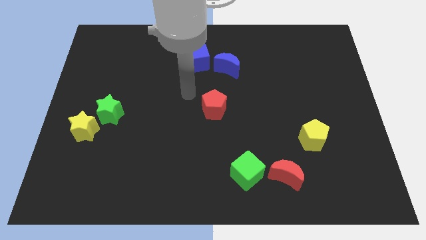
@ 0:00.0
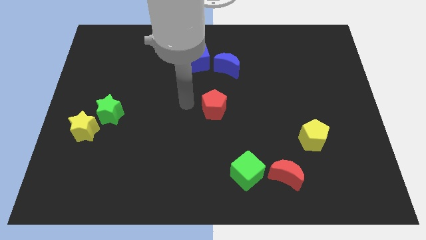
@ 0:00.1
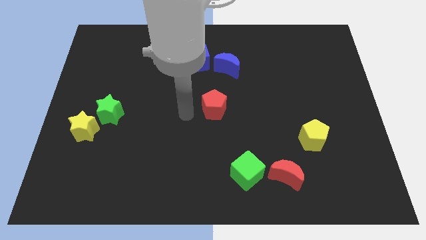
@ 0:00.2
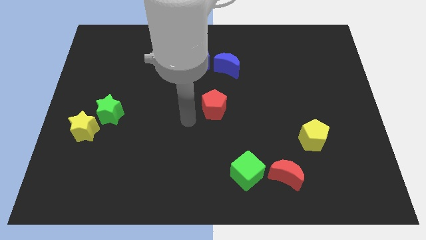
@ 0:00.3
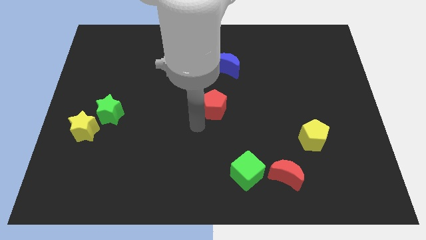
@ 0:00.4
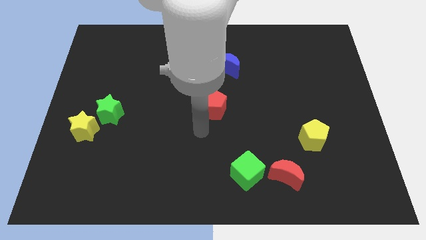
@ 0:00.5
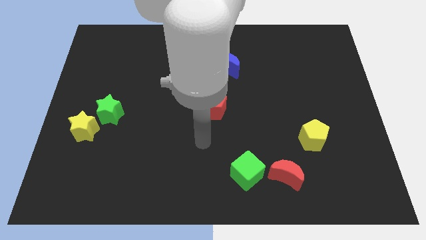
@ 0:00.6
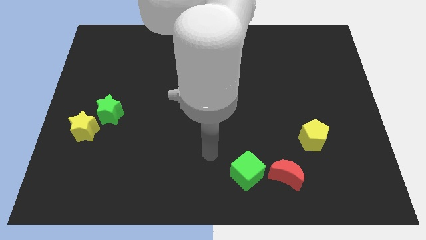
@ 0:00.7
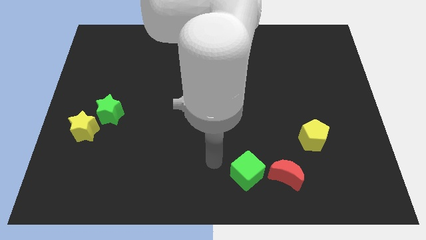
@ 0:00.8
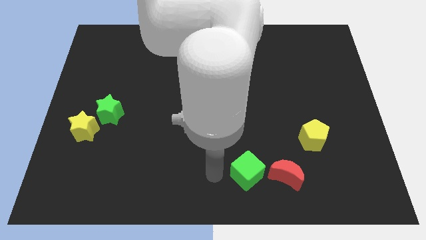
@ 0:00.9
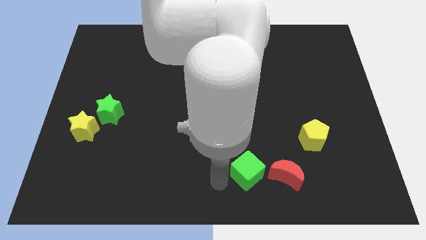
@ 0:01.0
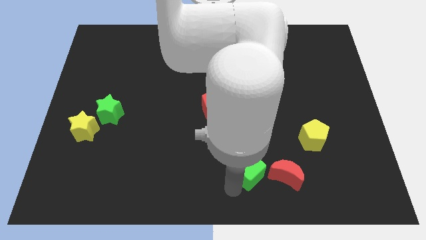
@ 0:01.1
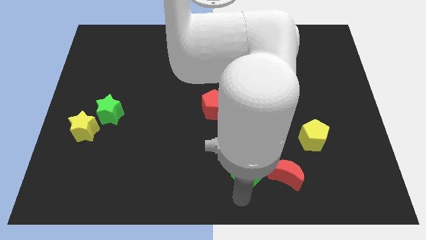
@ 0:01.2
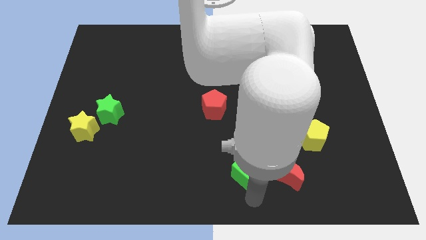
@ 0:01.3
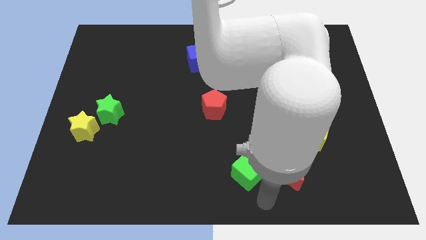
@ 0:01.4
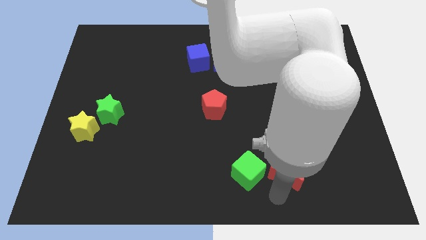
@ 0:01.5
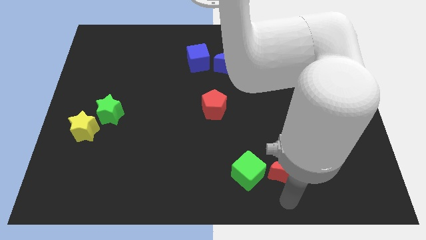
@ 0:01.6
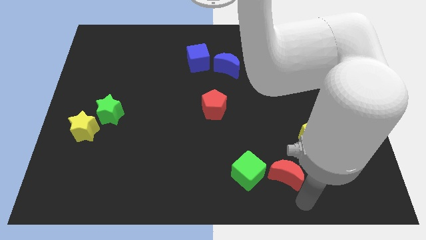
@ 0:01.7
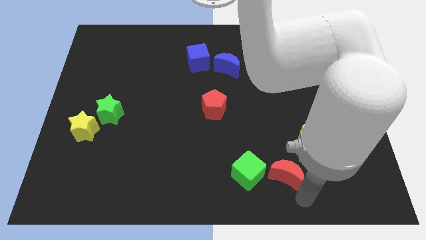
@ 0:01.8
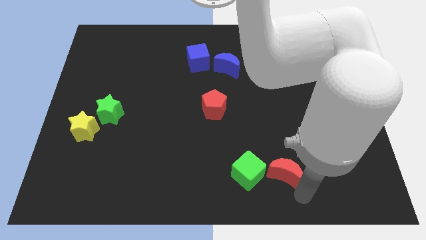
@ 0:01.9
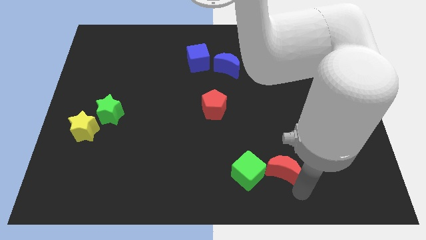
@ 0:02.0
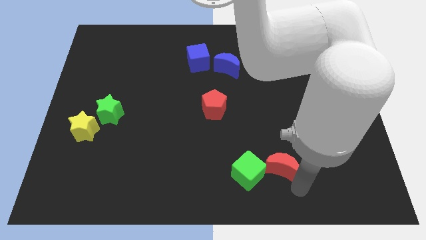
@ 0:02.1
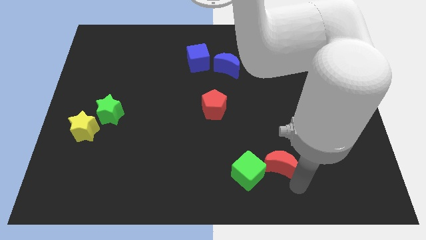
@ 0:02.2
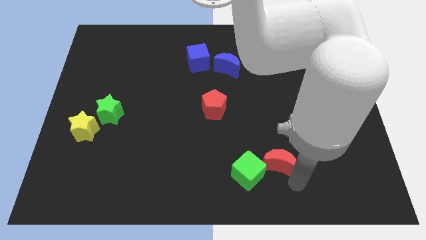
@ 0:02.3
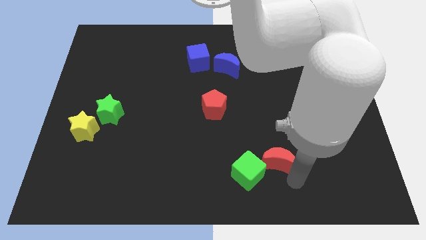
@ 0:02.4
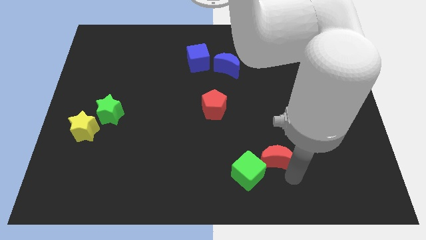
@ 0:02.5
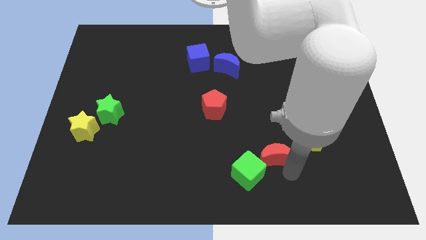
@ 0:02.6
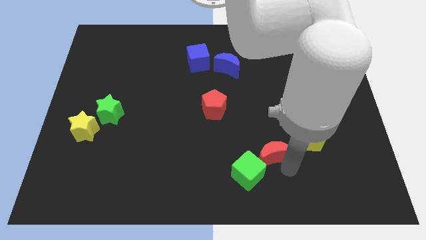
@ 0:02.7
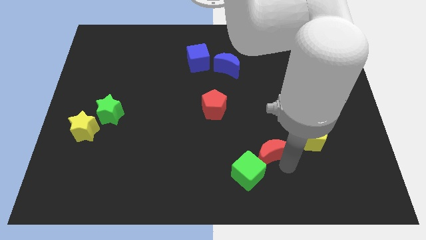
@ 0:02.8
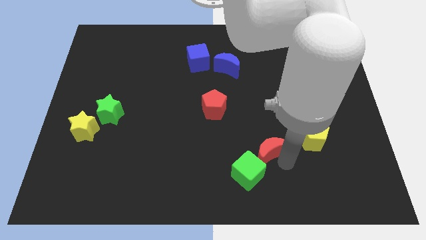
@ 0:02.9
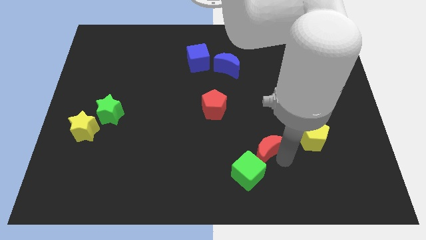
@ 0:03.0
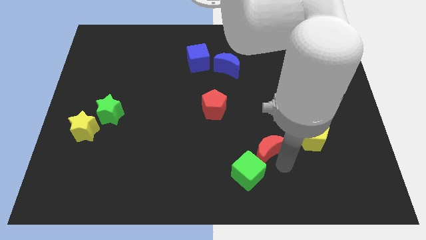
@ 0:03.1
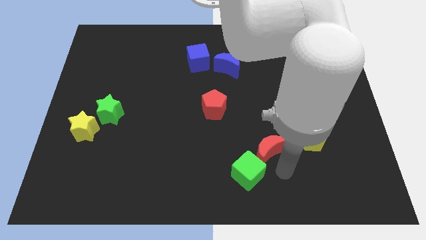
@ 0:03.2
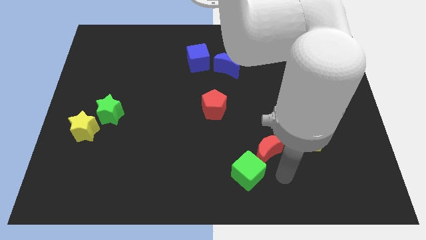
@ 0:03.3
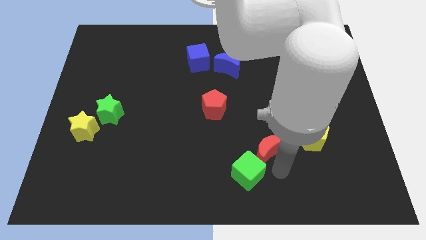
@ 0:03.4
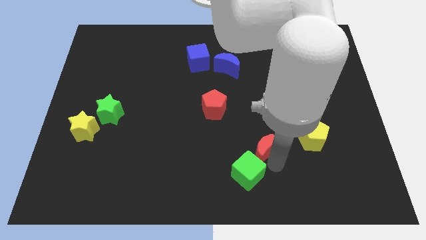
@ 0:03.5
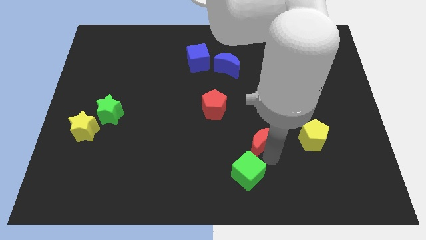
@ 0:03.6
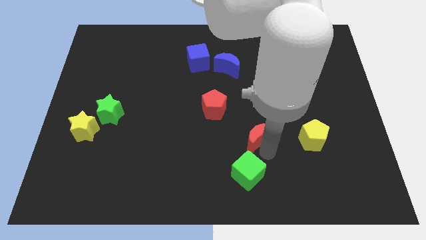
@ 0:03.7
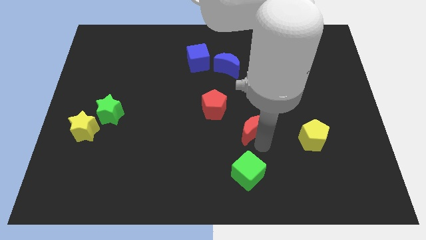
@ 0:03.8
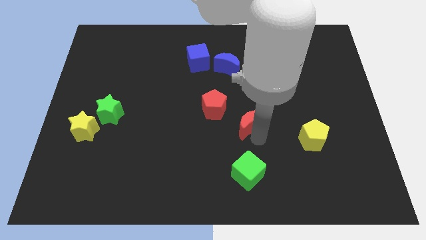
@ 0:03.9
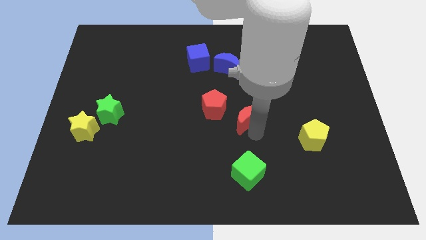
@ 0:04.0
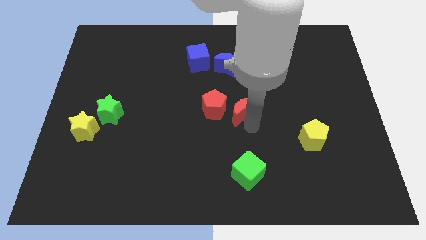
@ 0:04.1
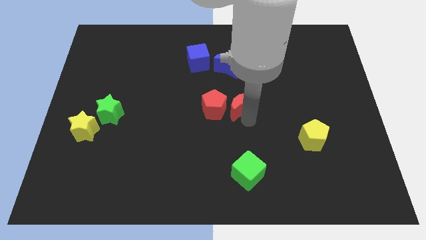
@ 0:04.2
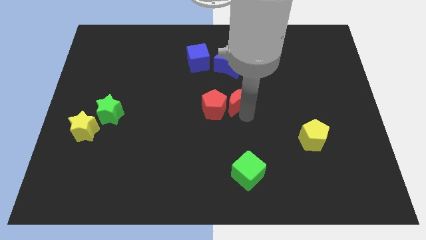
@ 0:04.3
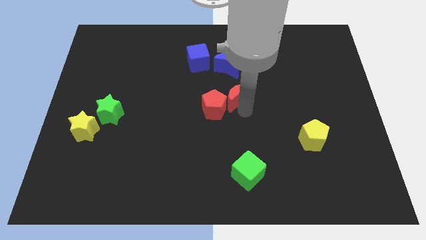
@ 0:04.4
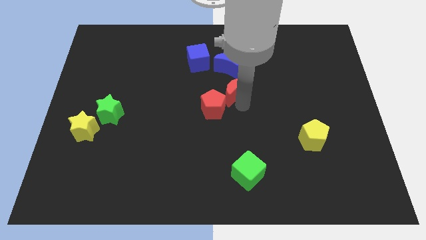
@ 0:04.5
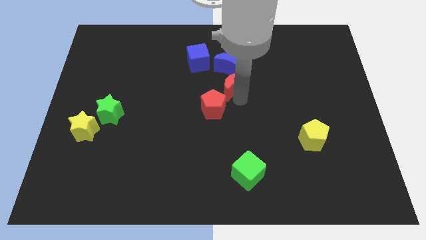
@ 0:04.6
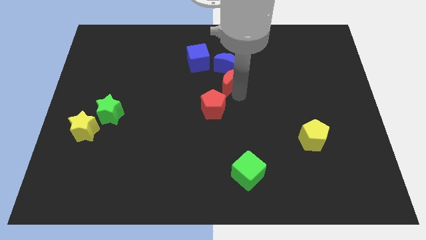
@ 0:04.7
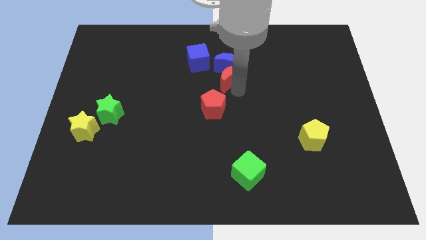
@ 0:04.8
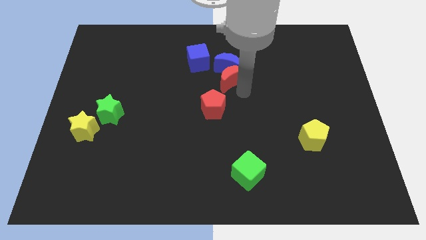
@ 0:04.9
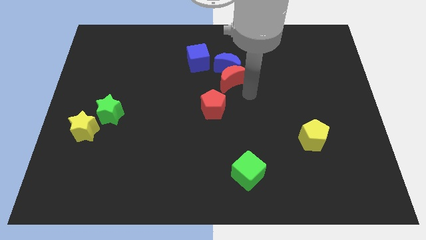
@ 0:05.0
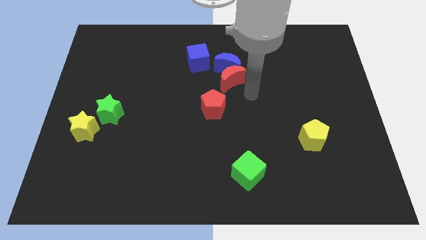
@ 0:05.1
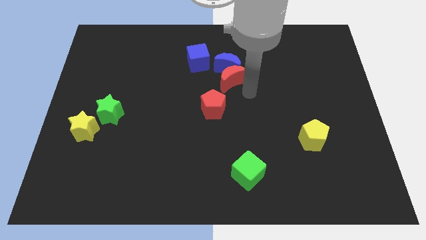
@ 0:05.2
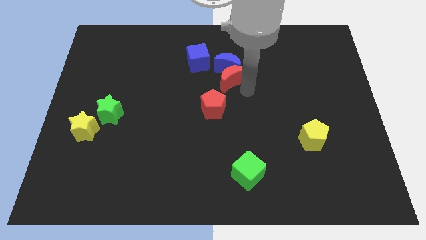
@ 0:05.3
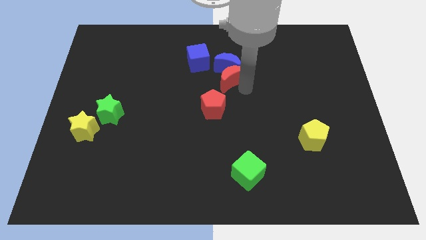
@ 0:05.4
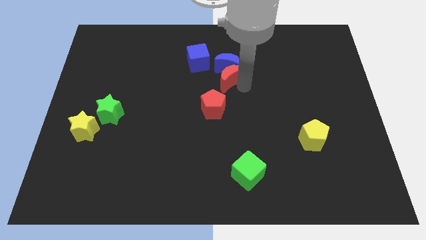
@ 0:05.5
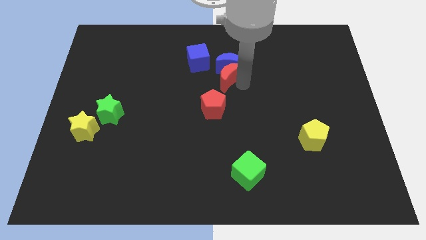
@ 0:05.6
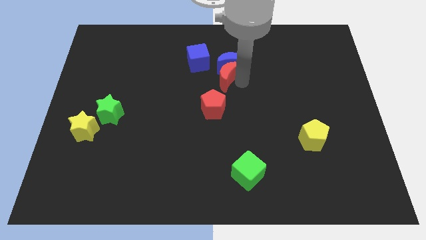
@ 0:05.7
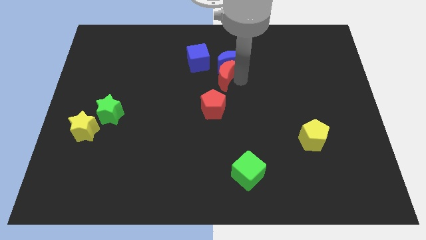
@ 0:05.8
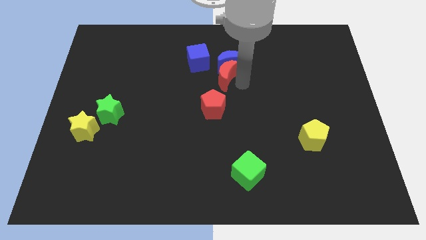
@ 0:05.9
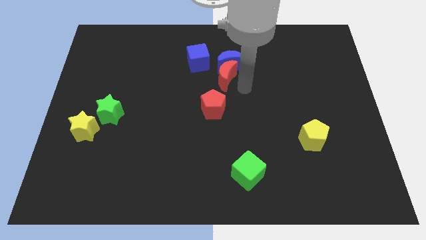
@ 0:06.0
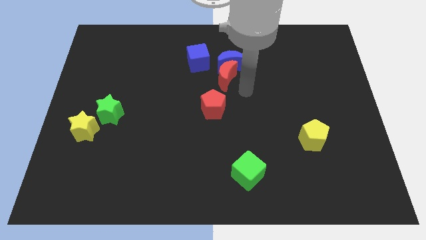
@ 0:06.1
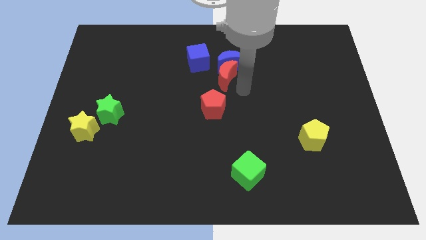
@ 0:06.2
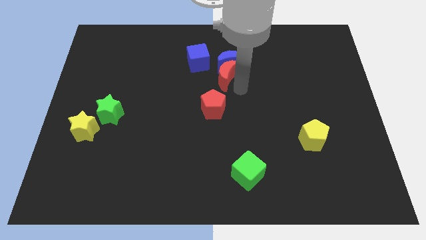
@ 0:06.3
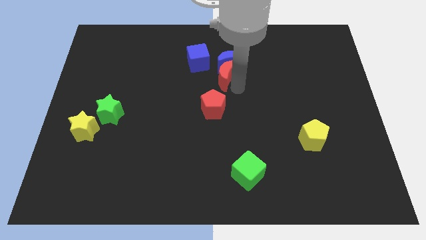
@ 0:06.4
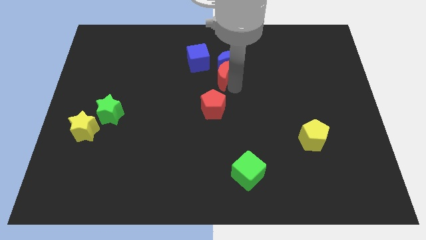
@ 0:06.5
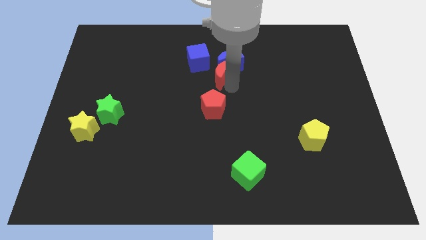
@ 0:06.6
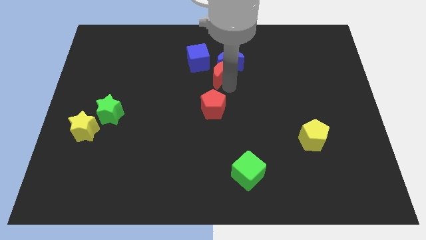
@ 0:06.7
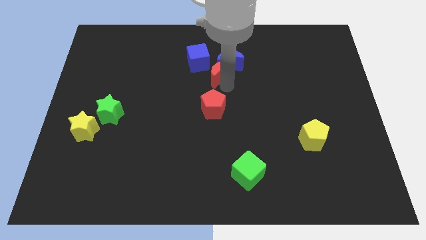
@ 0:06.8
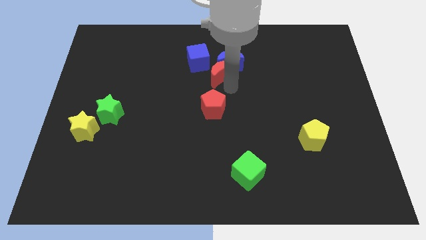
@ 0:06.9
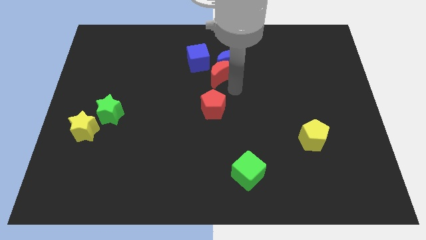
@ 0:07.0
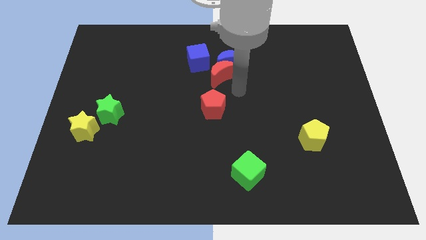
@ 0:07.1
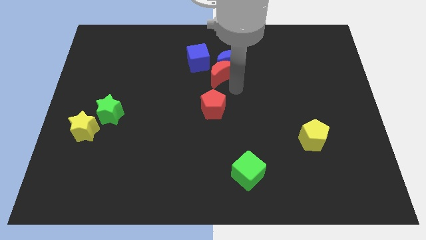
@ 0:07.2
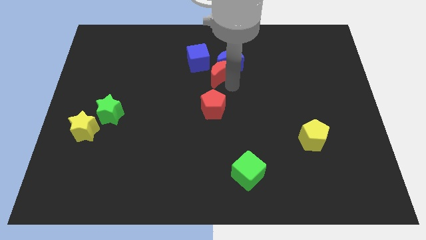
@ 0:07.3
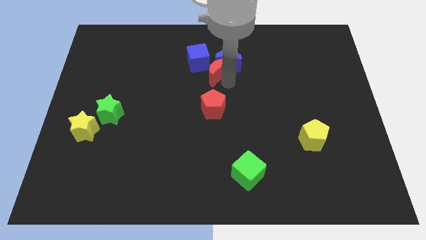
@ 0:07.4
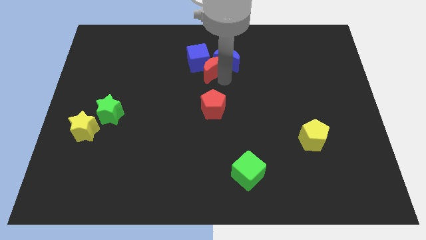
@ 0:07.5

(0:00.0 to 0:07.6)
slide the red moon towards the blue cube
